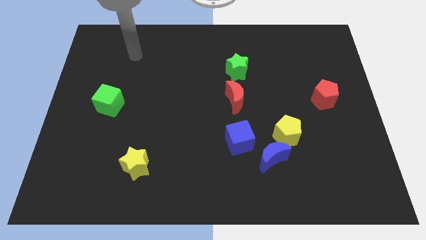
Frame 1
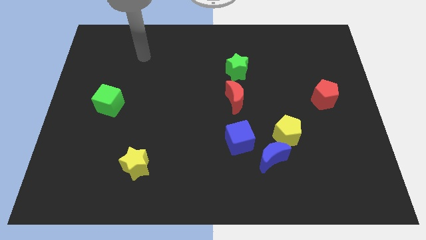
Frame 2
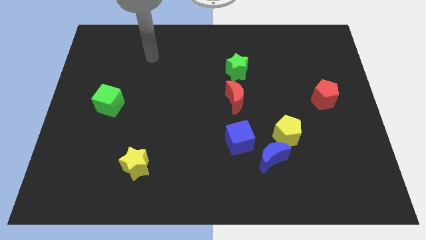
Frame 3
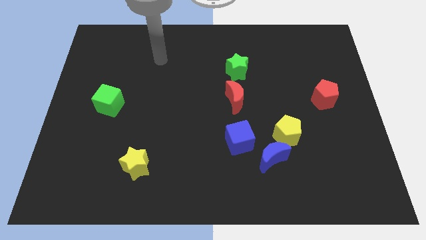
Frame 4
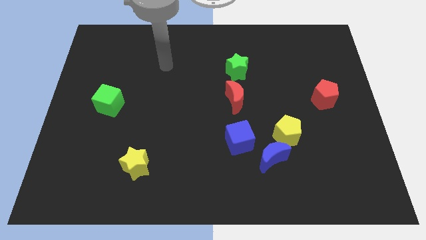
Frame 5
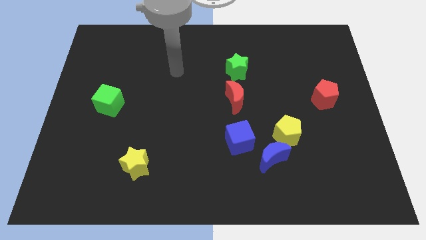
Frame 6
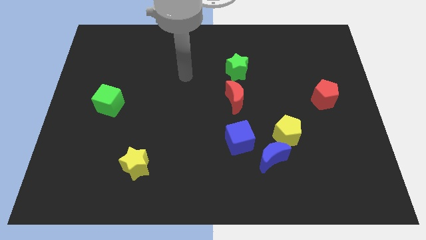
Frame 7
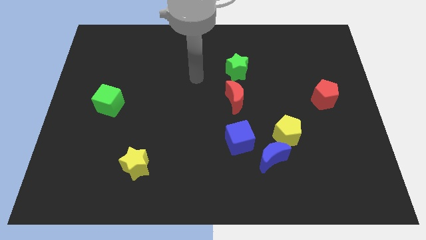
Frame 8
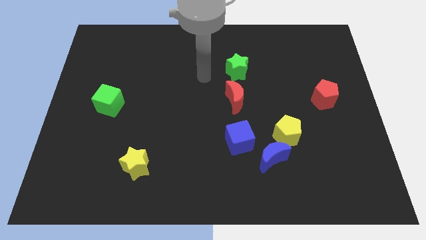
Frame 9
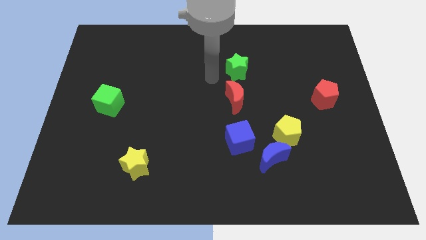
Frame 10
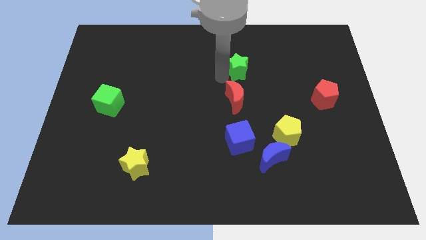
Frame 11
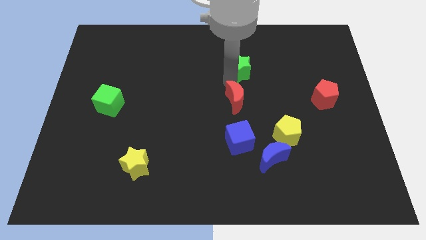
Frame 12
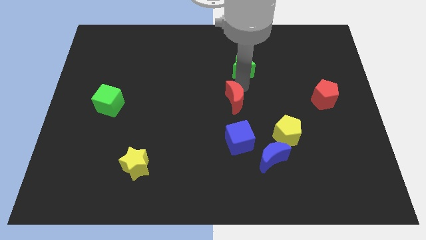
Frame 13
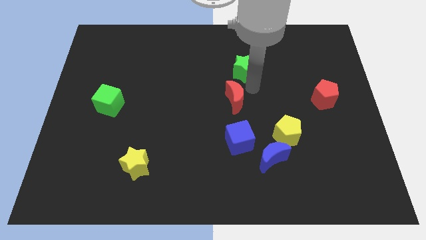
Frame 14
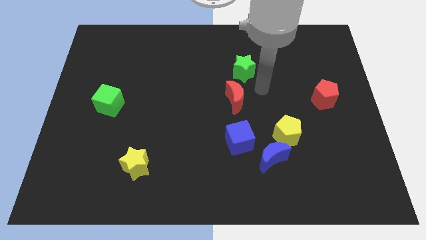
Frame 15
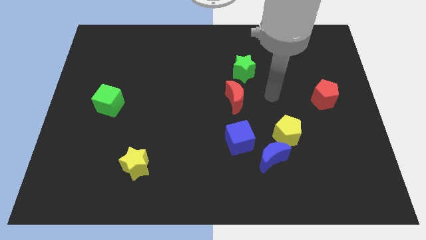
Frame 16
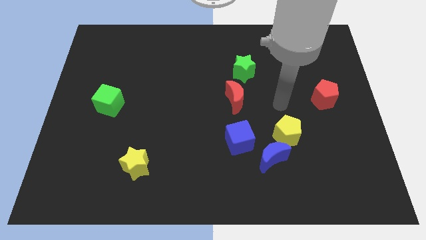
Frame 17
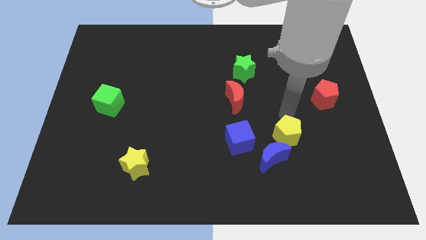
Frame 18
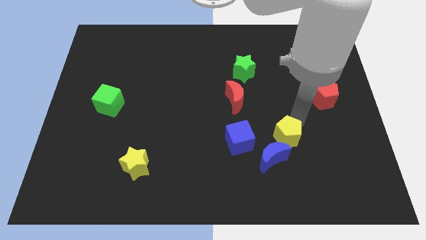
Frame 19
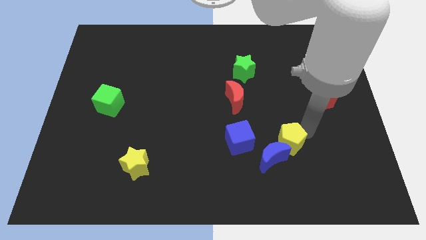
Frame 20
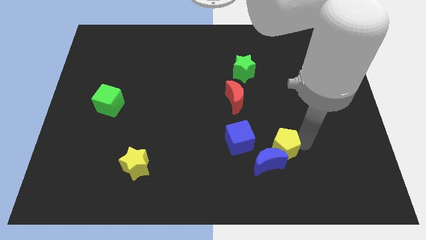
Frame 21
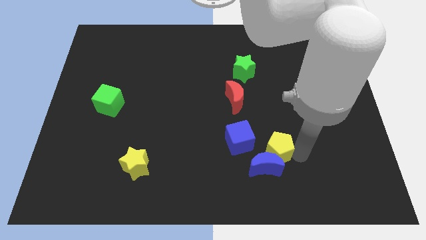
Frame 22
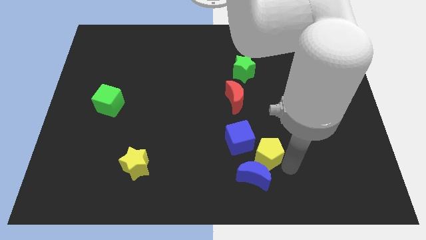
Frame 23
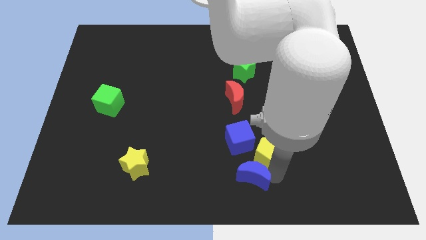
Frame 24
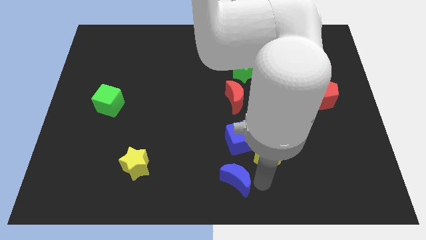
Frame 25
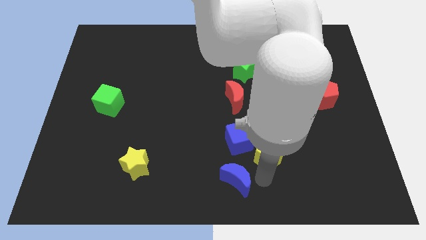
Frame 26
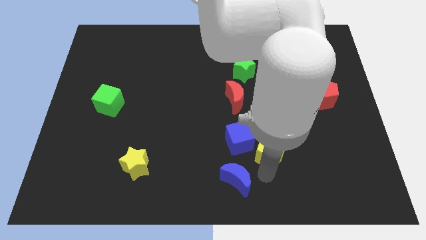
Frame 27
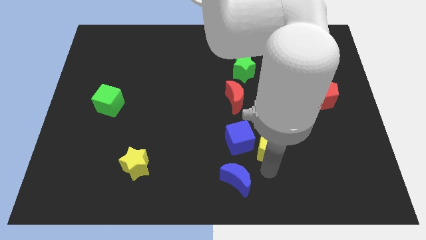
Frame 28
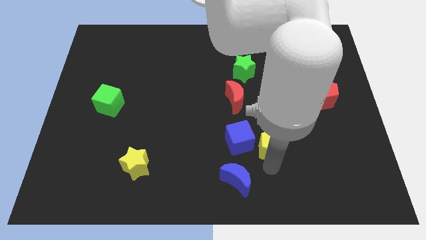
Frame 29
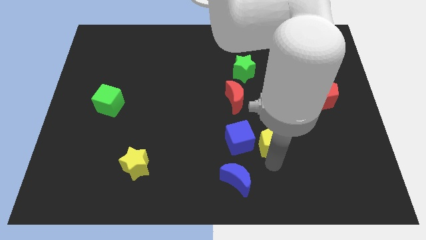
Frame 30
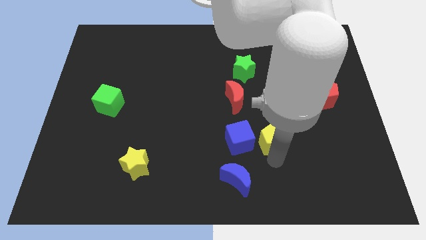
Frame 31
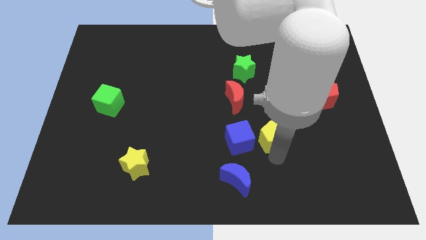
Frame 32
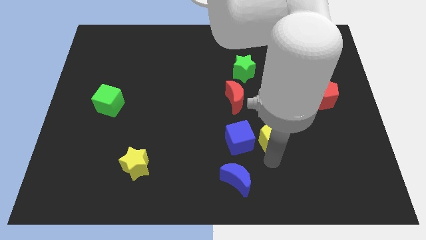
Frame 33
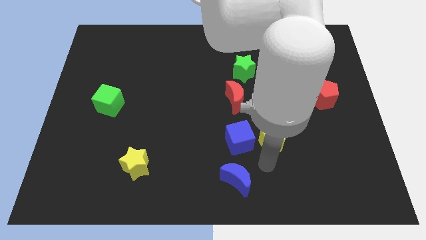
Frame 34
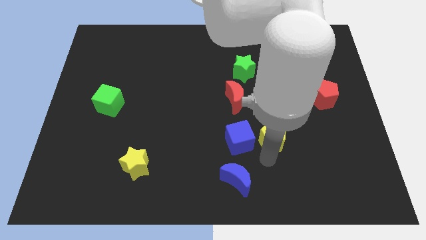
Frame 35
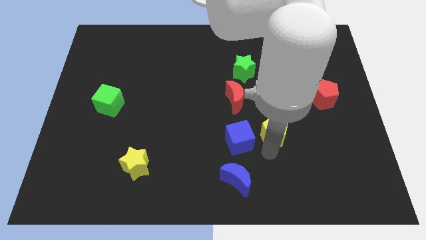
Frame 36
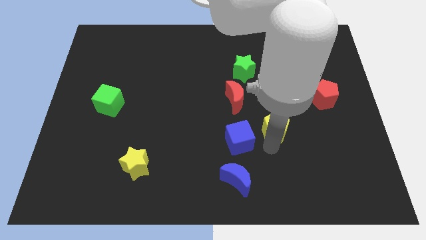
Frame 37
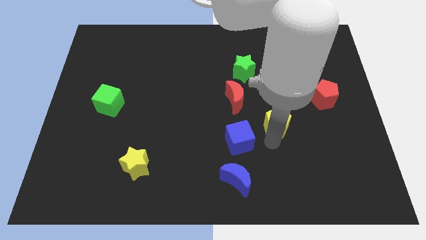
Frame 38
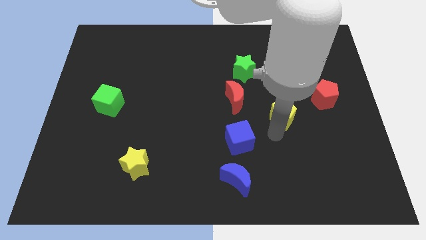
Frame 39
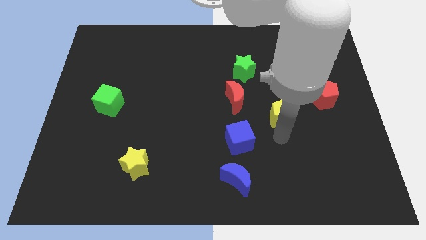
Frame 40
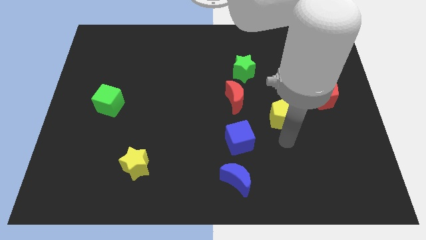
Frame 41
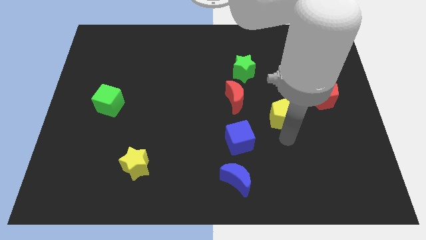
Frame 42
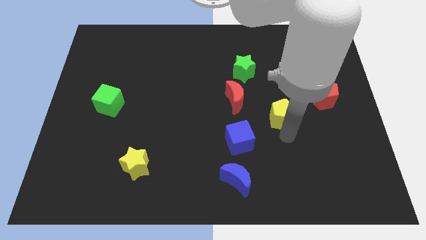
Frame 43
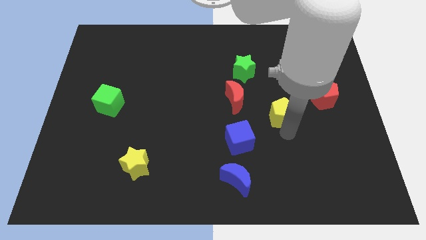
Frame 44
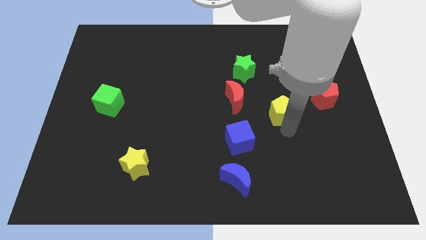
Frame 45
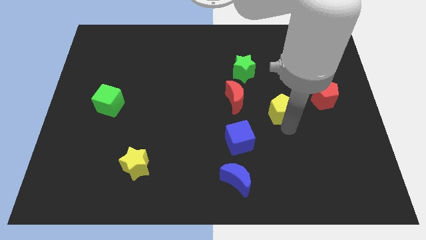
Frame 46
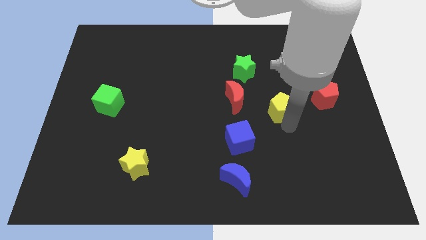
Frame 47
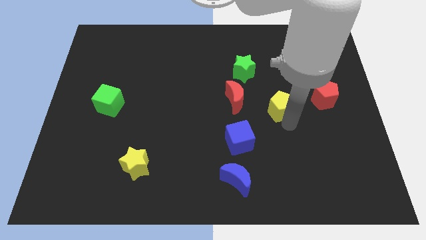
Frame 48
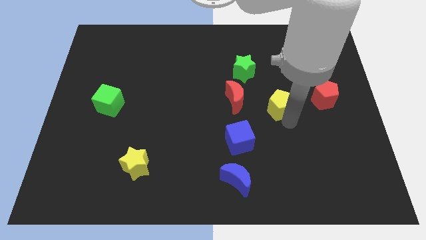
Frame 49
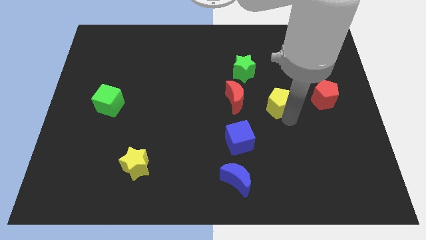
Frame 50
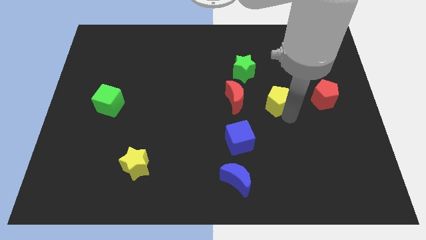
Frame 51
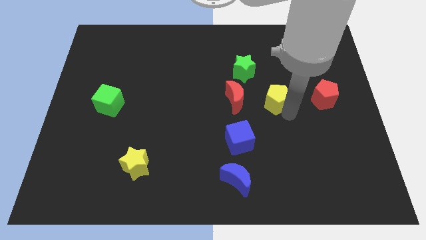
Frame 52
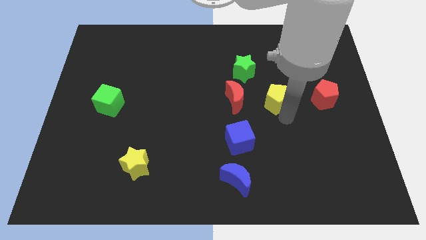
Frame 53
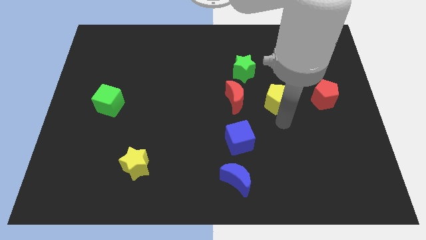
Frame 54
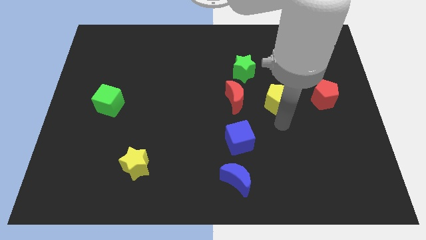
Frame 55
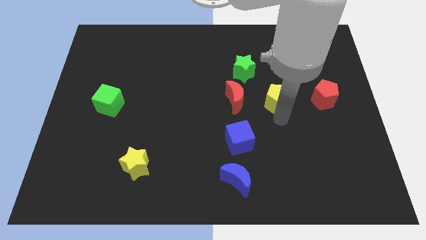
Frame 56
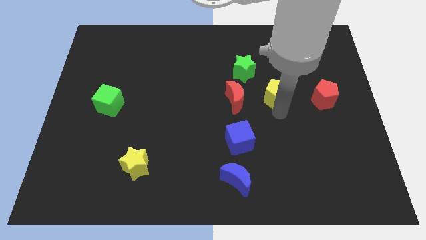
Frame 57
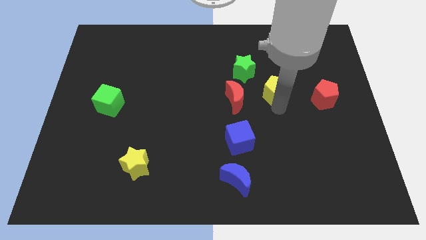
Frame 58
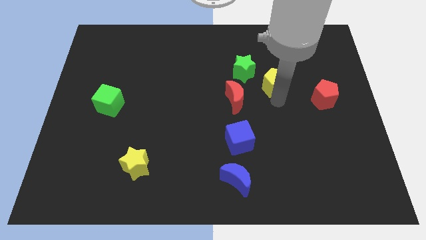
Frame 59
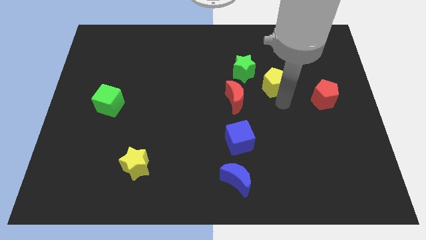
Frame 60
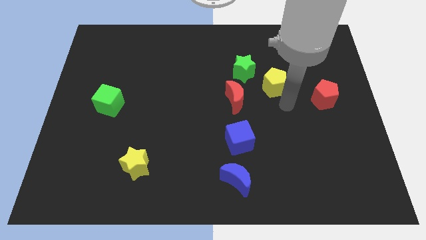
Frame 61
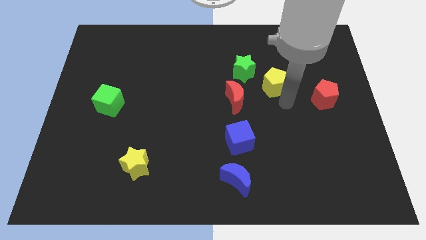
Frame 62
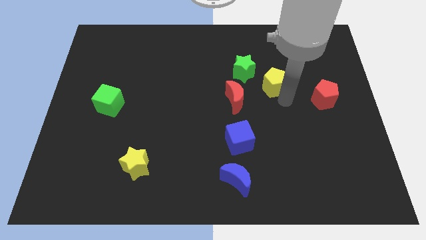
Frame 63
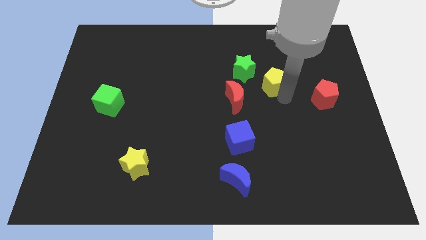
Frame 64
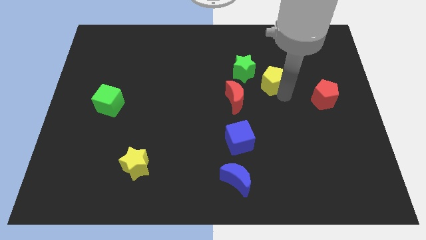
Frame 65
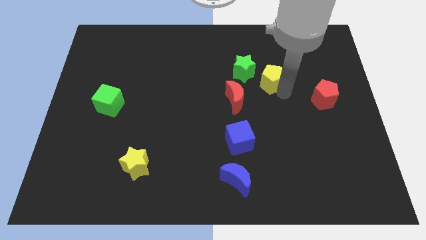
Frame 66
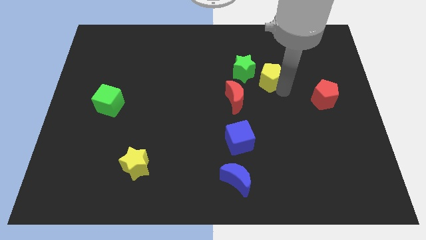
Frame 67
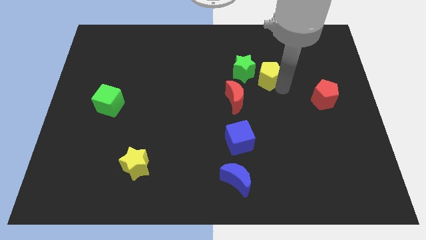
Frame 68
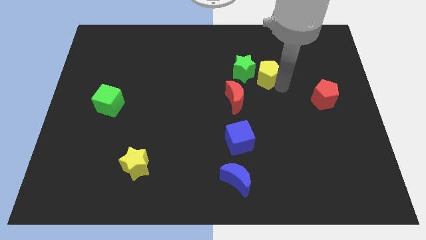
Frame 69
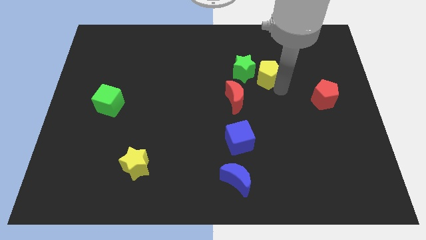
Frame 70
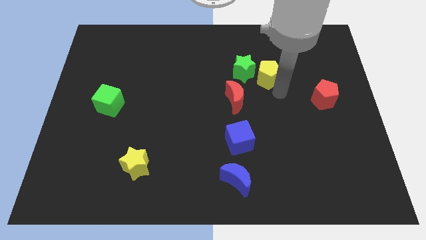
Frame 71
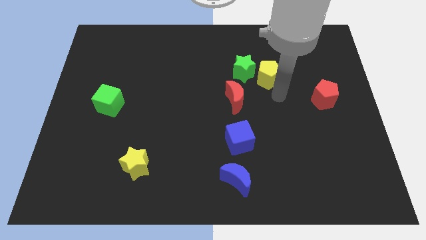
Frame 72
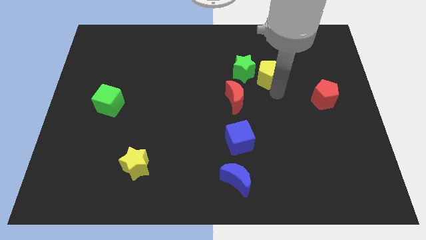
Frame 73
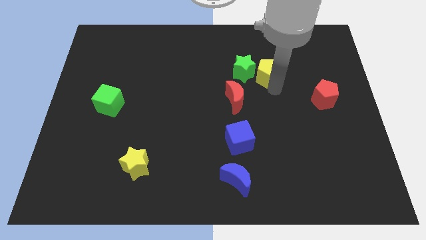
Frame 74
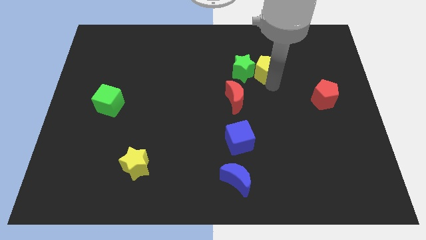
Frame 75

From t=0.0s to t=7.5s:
slide the yellow pentagon to the top right of the green star
